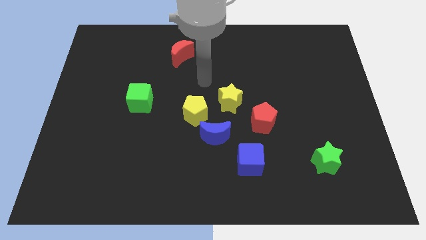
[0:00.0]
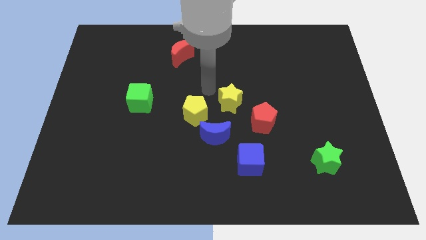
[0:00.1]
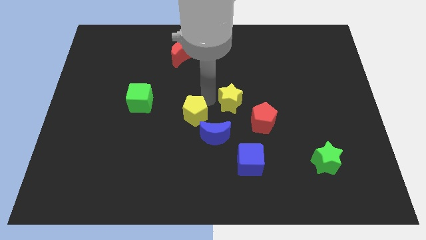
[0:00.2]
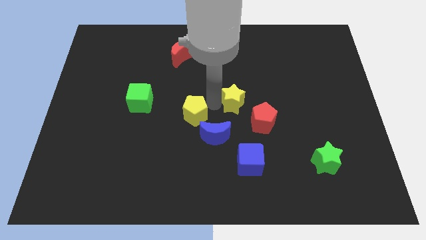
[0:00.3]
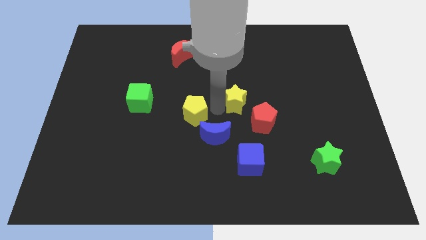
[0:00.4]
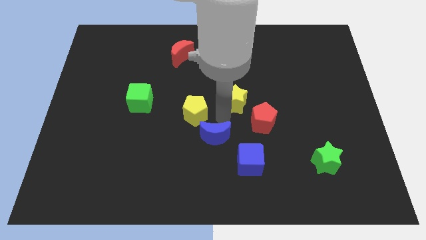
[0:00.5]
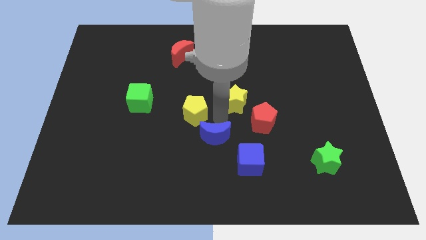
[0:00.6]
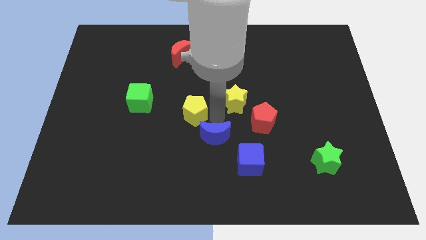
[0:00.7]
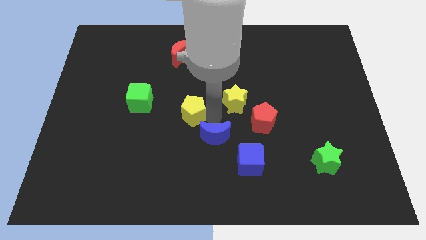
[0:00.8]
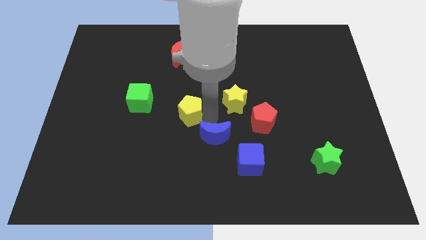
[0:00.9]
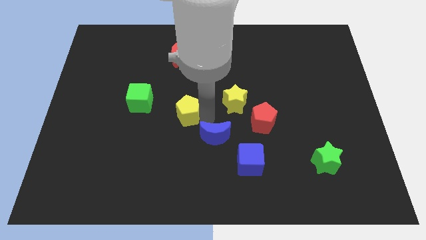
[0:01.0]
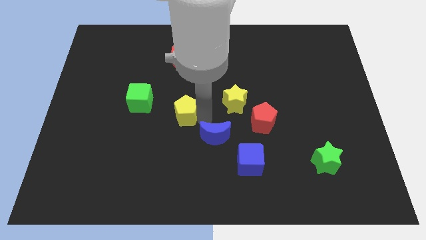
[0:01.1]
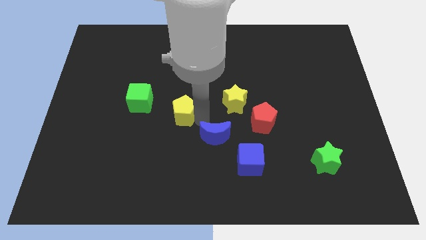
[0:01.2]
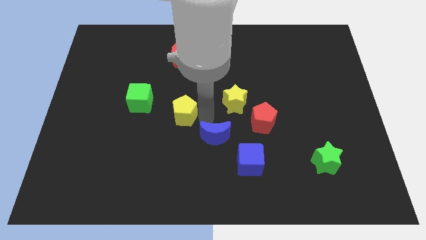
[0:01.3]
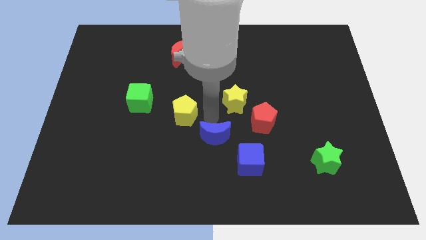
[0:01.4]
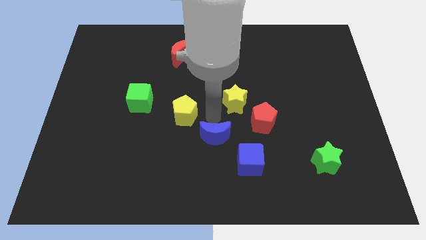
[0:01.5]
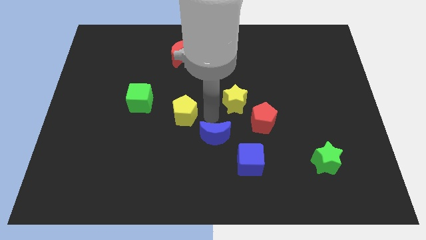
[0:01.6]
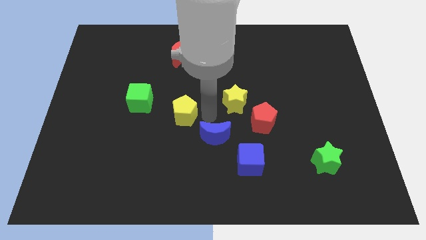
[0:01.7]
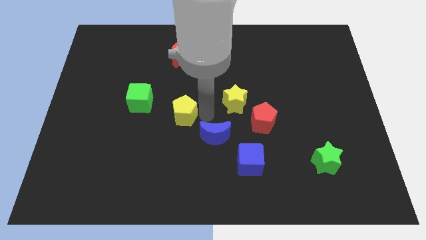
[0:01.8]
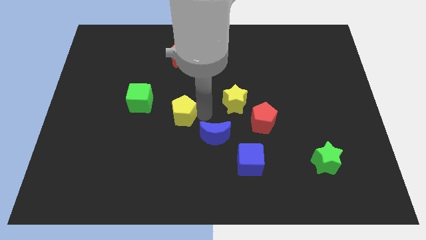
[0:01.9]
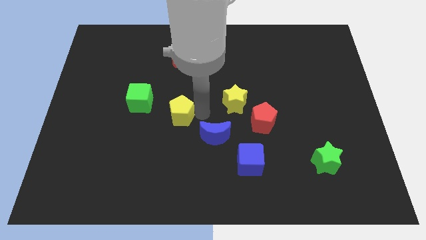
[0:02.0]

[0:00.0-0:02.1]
separate the yellow pentagon from the blue moon and yellow star

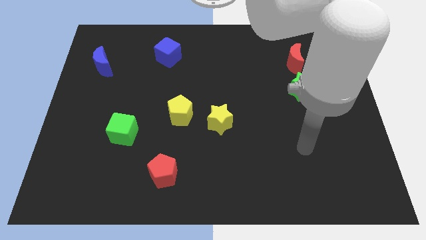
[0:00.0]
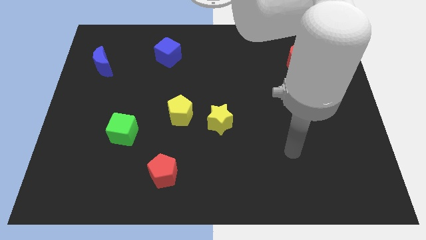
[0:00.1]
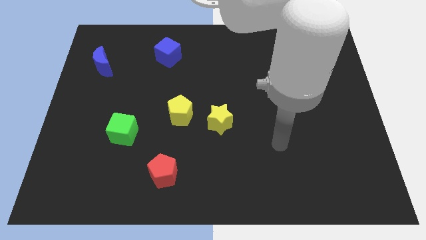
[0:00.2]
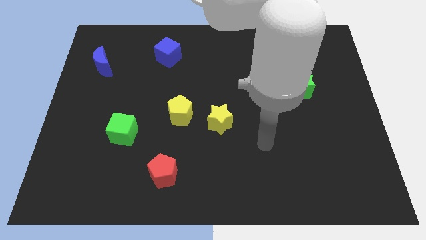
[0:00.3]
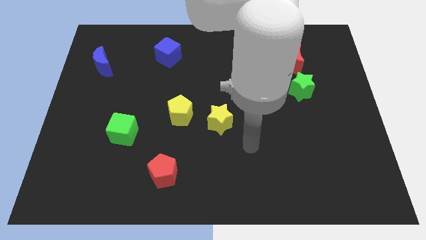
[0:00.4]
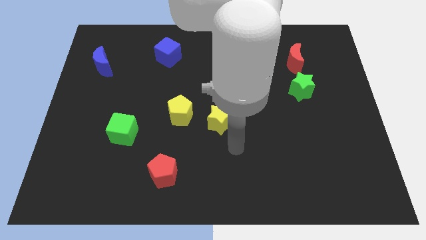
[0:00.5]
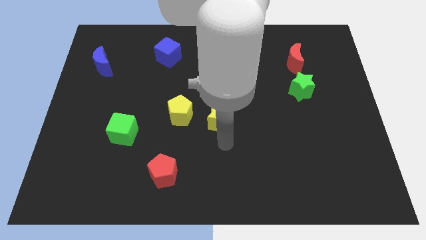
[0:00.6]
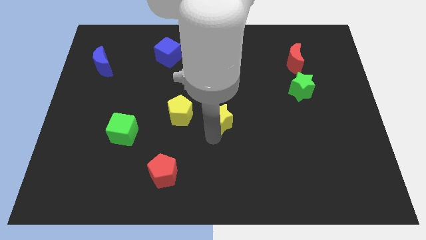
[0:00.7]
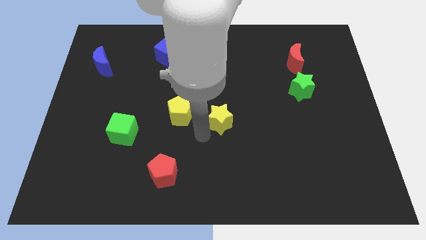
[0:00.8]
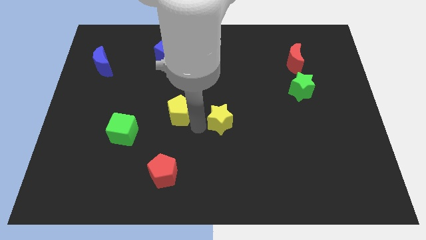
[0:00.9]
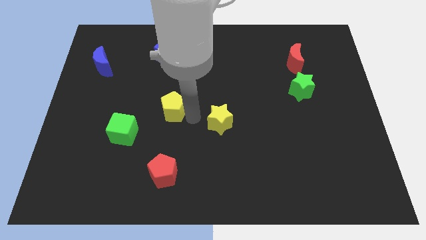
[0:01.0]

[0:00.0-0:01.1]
separate the yellow star from the yellow pentagon

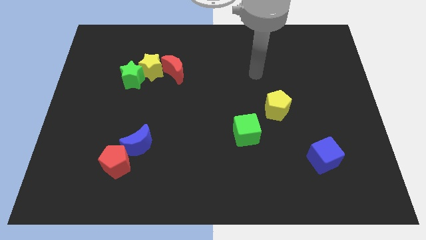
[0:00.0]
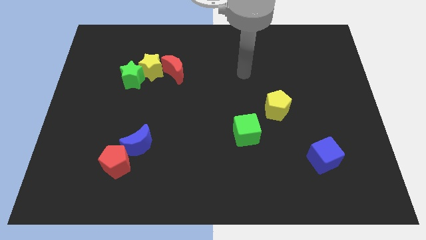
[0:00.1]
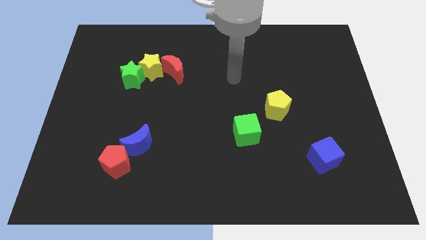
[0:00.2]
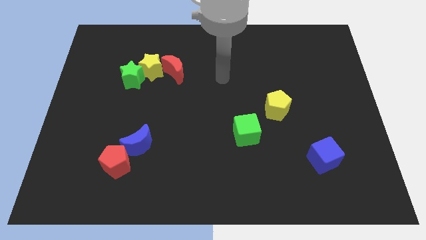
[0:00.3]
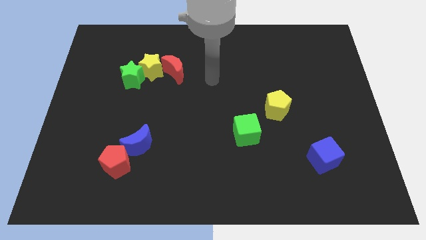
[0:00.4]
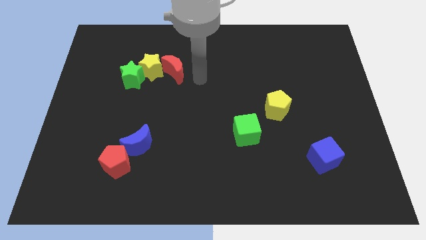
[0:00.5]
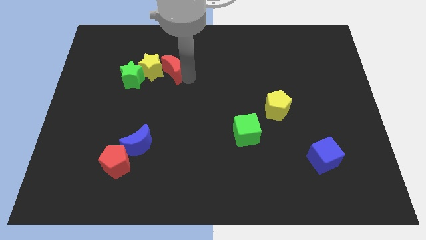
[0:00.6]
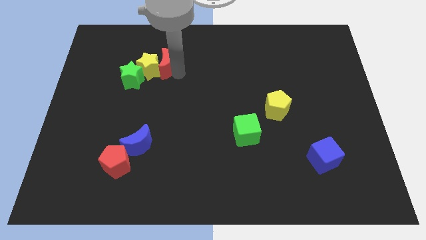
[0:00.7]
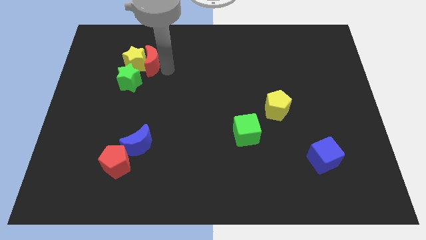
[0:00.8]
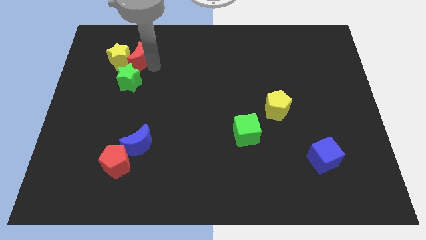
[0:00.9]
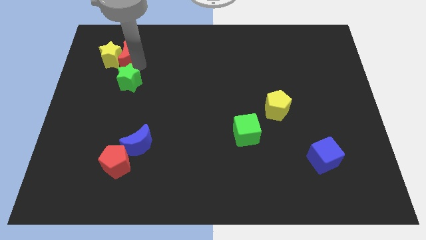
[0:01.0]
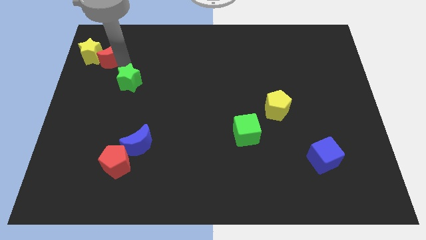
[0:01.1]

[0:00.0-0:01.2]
move the green star away from the yellow star

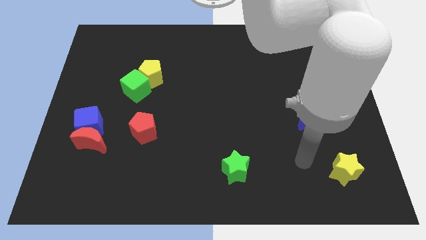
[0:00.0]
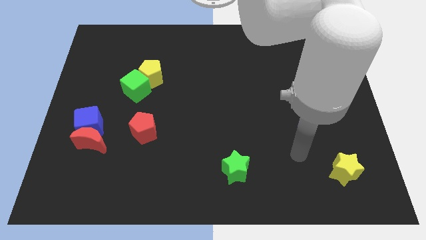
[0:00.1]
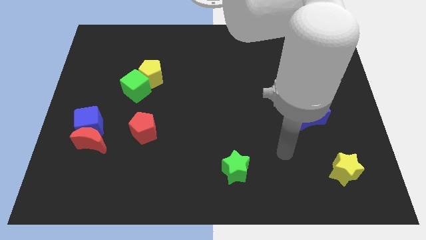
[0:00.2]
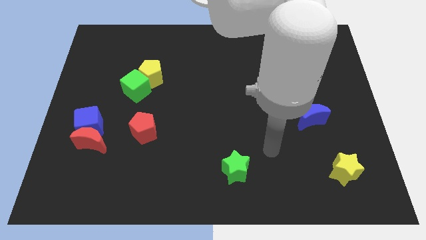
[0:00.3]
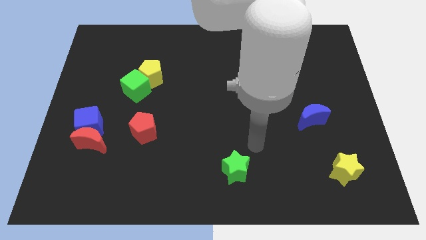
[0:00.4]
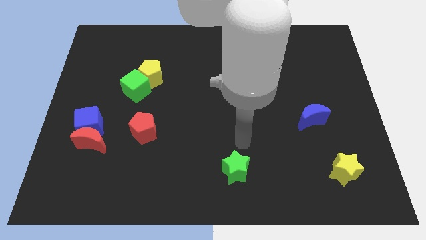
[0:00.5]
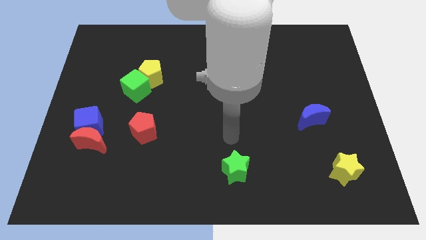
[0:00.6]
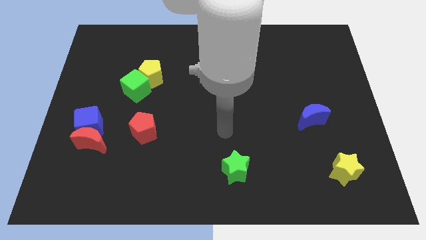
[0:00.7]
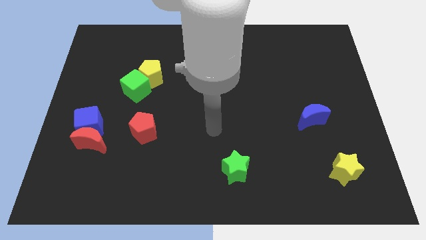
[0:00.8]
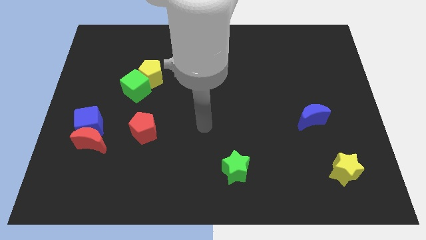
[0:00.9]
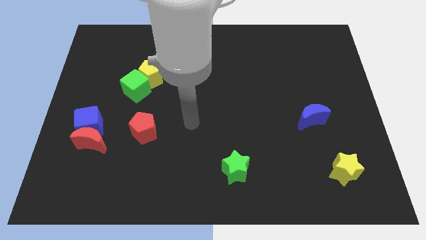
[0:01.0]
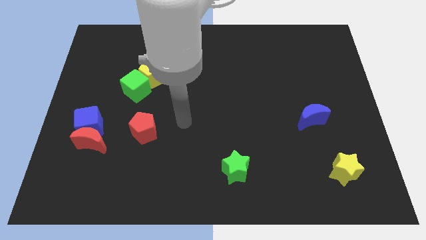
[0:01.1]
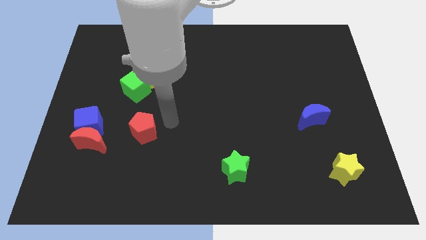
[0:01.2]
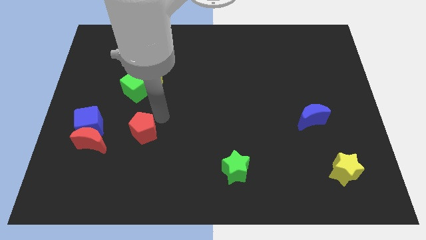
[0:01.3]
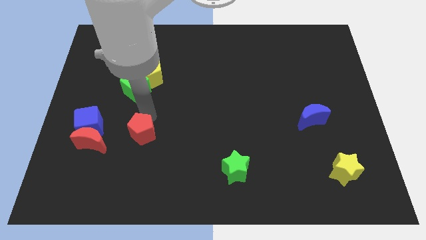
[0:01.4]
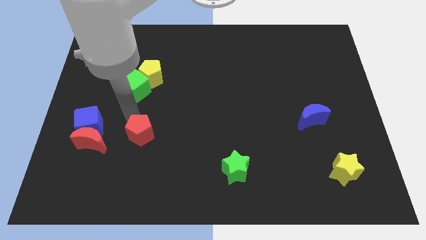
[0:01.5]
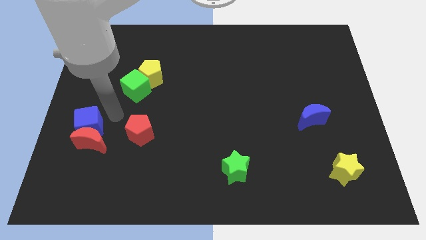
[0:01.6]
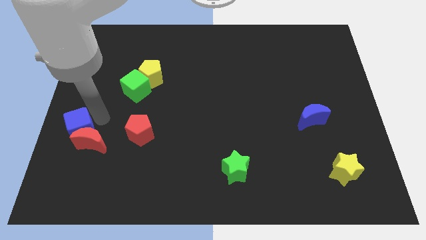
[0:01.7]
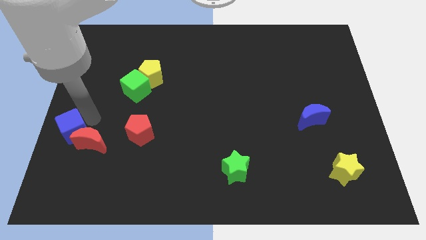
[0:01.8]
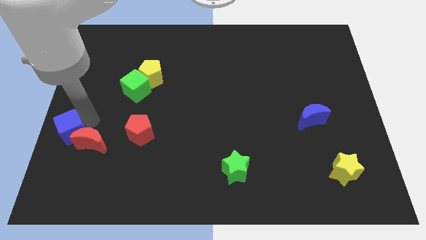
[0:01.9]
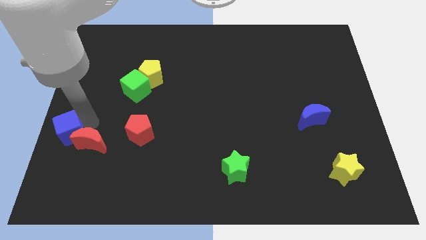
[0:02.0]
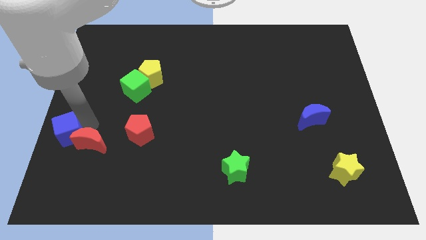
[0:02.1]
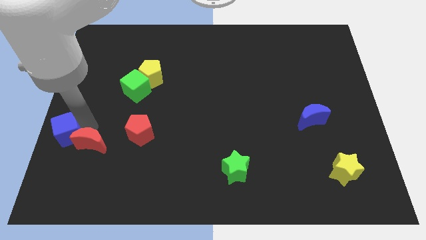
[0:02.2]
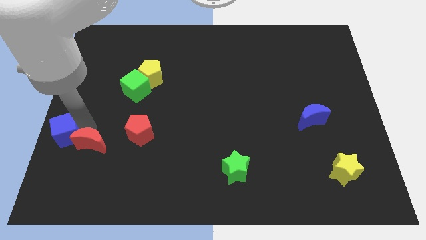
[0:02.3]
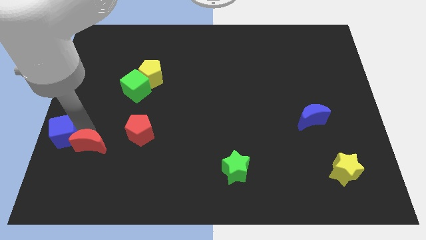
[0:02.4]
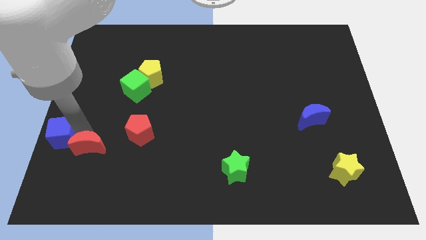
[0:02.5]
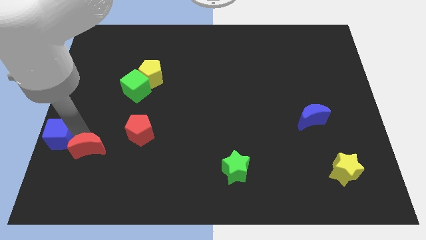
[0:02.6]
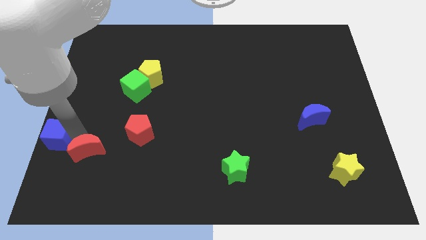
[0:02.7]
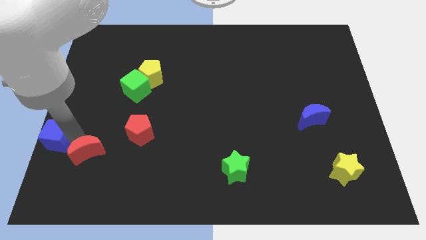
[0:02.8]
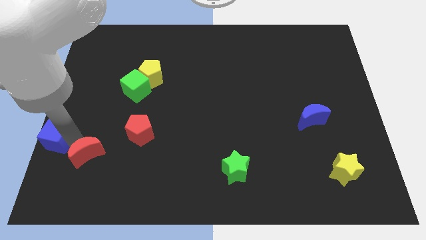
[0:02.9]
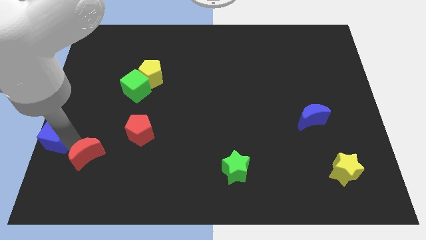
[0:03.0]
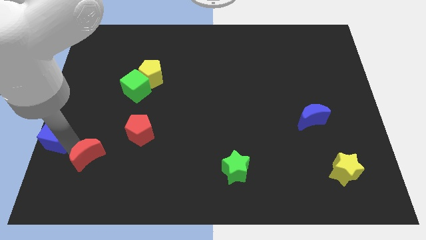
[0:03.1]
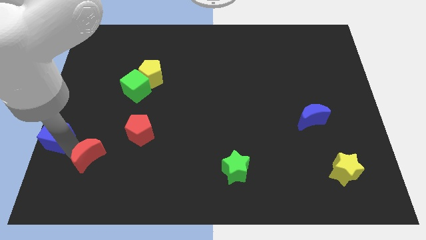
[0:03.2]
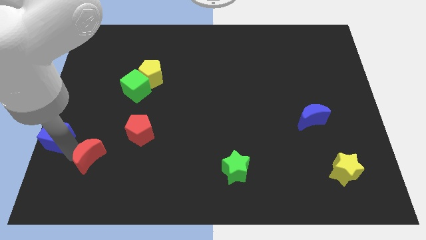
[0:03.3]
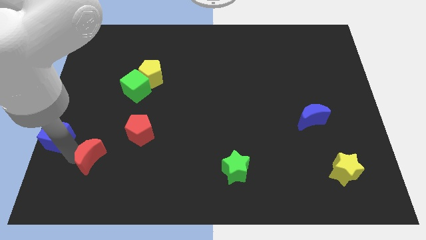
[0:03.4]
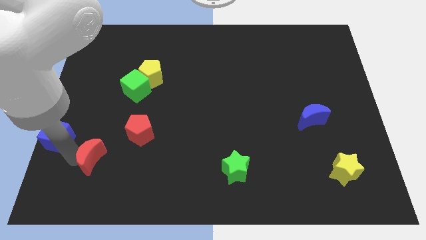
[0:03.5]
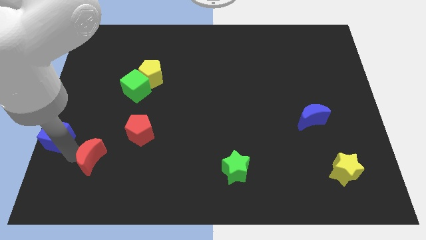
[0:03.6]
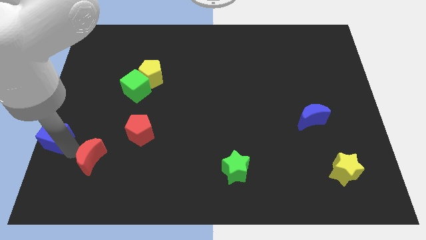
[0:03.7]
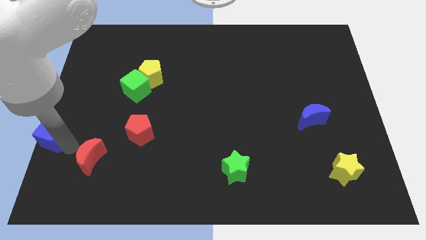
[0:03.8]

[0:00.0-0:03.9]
move the red moon away from the blue cube

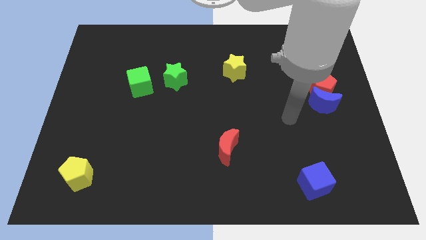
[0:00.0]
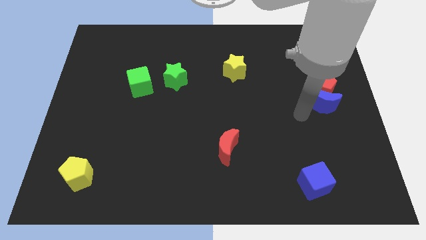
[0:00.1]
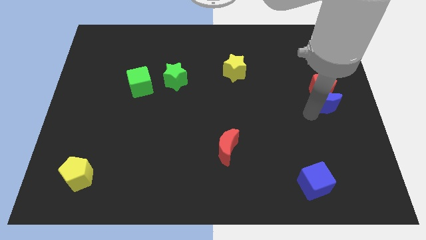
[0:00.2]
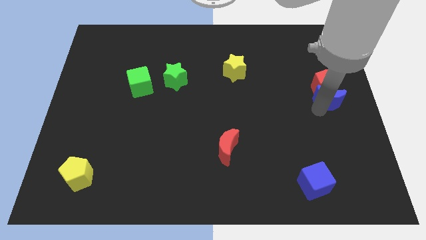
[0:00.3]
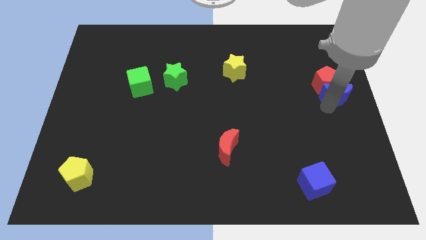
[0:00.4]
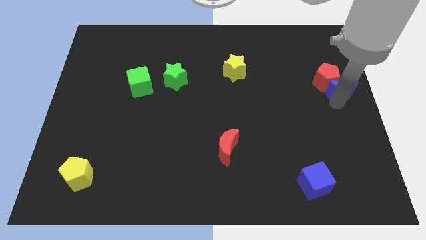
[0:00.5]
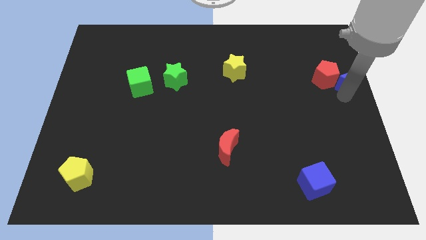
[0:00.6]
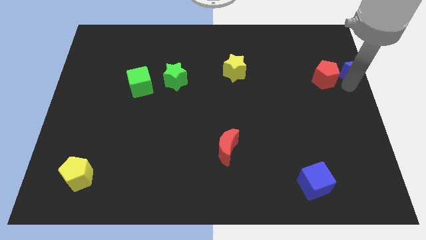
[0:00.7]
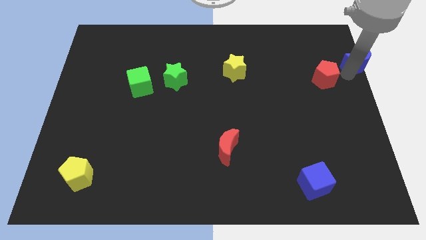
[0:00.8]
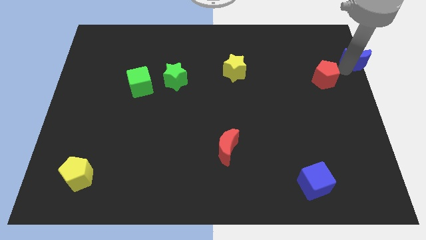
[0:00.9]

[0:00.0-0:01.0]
move the red pentagon away from the blue moon
